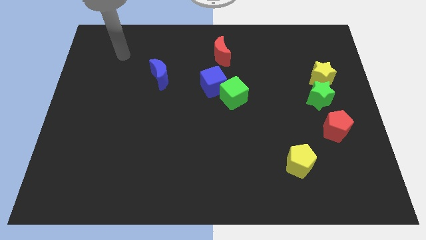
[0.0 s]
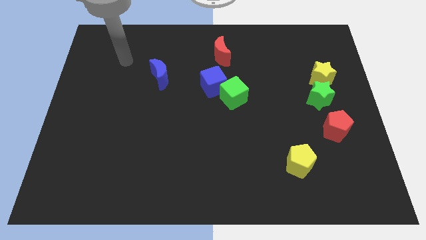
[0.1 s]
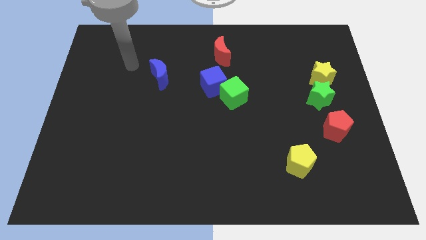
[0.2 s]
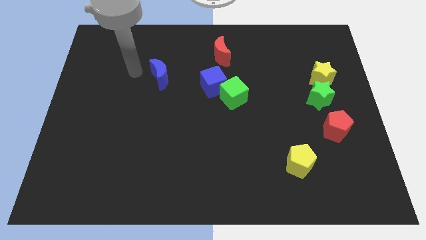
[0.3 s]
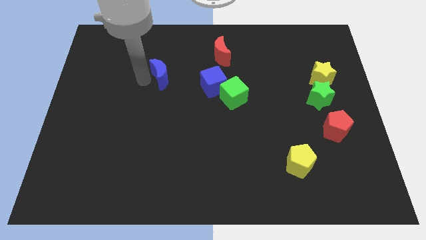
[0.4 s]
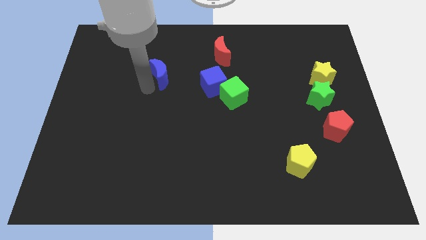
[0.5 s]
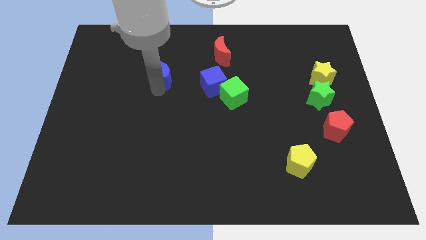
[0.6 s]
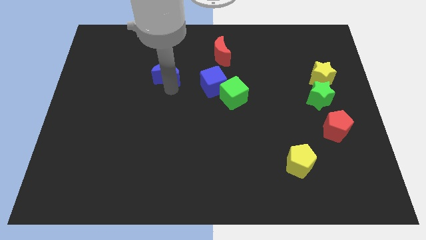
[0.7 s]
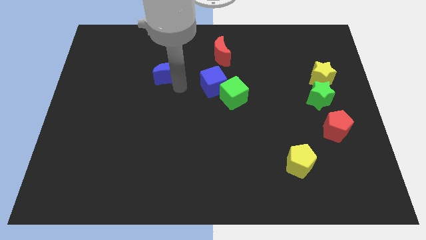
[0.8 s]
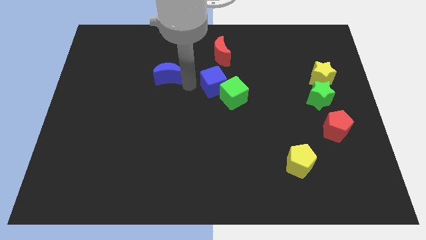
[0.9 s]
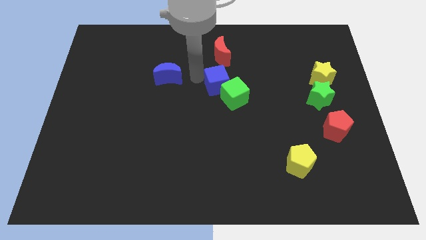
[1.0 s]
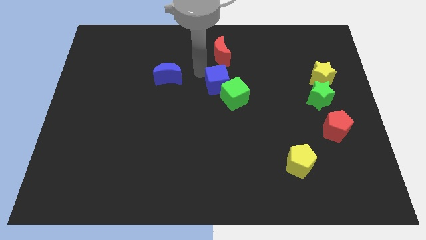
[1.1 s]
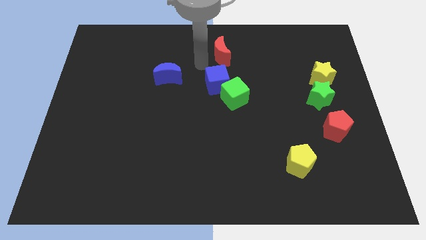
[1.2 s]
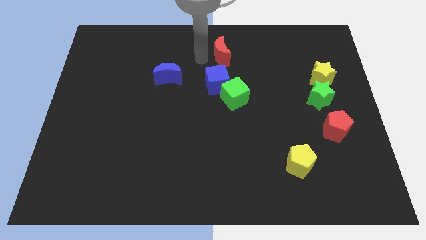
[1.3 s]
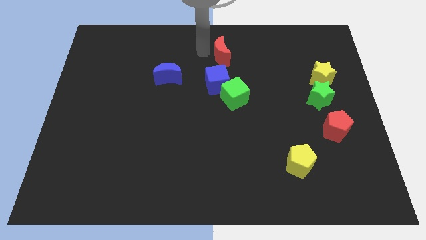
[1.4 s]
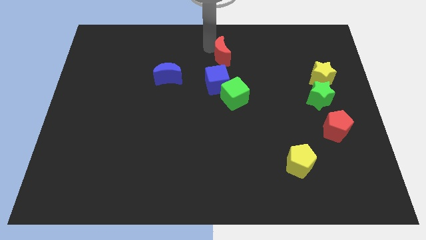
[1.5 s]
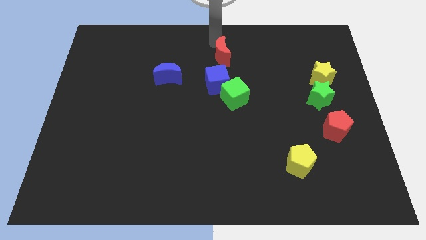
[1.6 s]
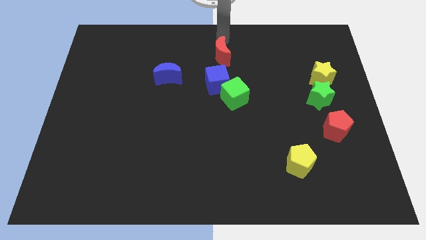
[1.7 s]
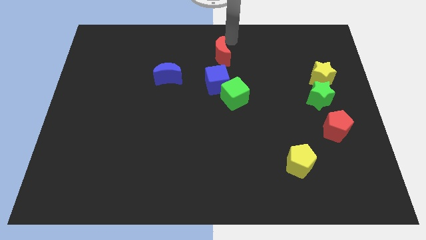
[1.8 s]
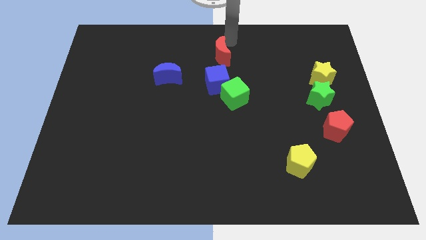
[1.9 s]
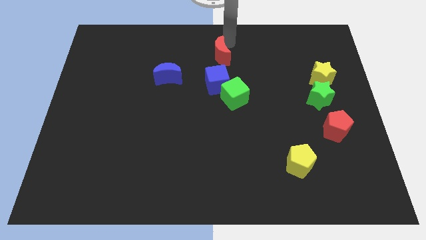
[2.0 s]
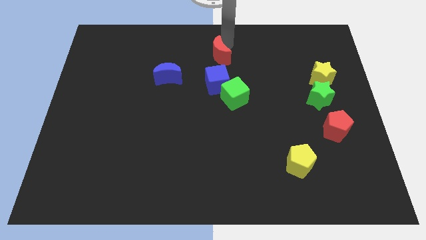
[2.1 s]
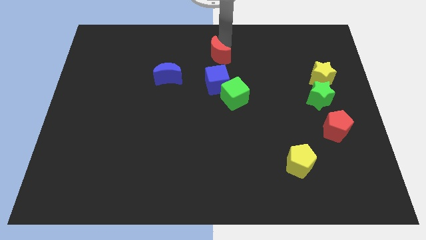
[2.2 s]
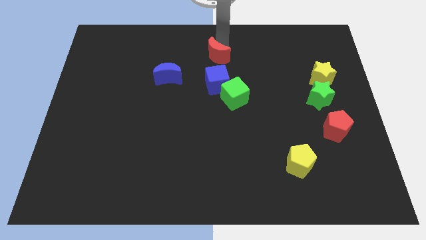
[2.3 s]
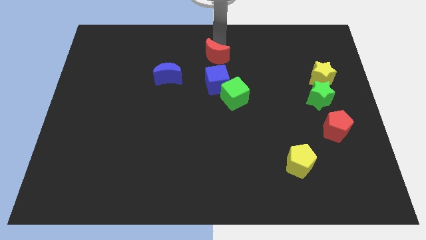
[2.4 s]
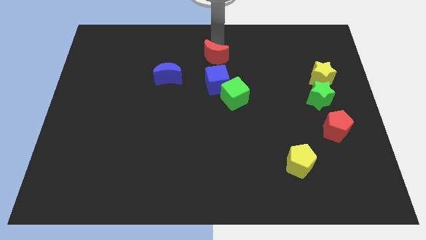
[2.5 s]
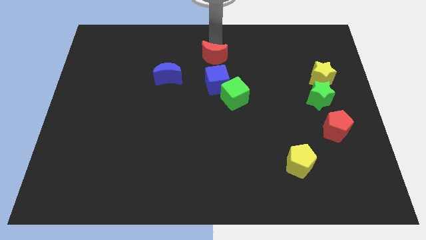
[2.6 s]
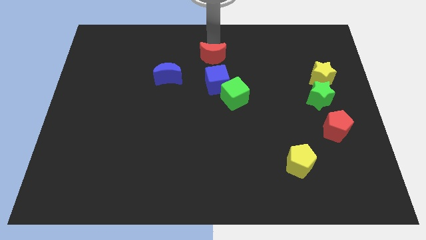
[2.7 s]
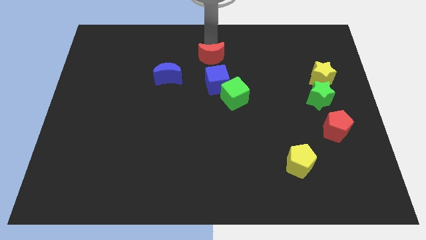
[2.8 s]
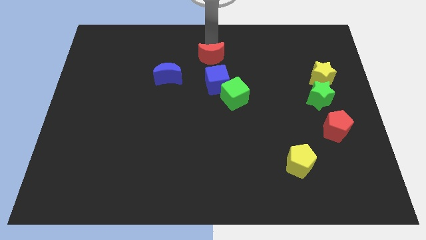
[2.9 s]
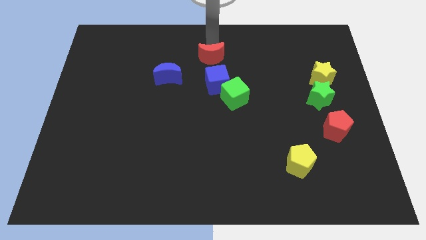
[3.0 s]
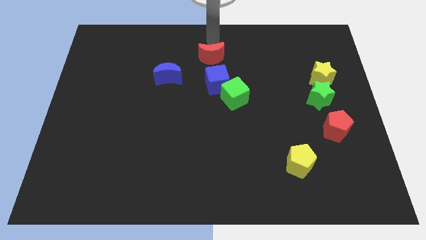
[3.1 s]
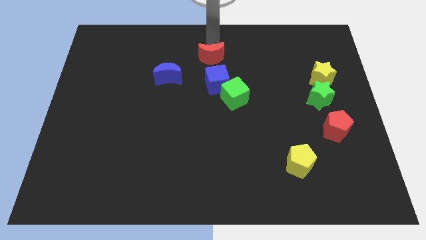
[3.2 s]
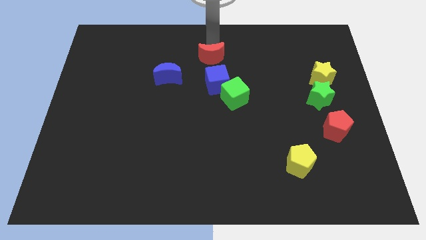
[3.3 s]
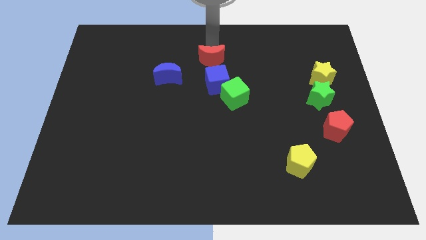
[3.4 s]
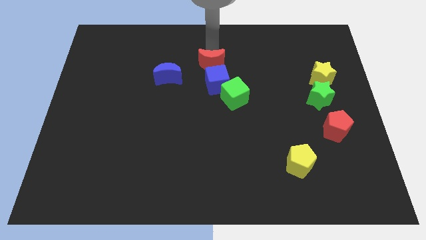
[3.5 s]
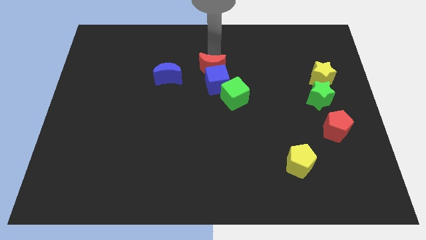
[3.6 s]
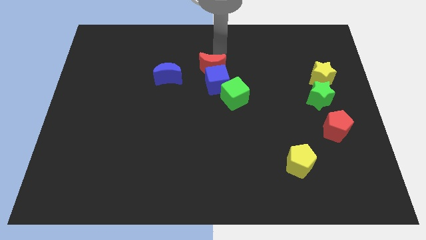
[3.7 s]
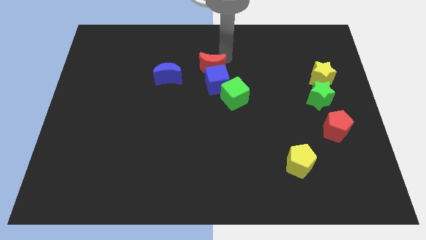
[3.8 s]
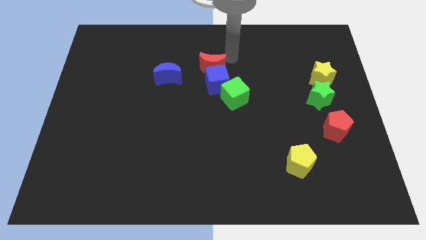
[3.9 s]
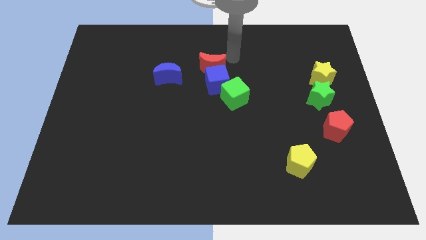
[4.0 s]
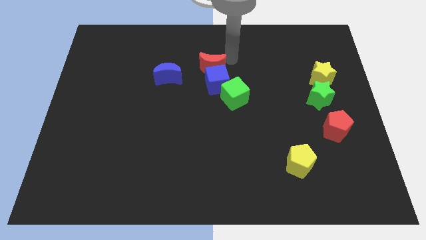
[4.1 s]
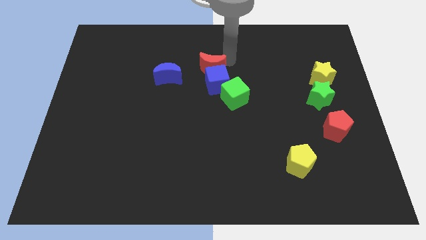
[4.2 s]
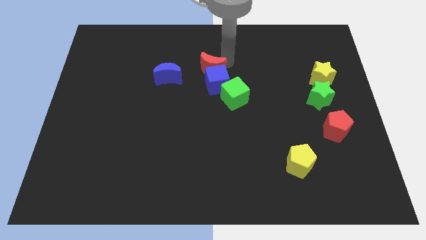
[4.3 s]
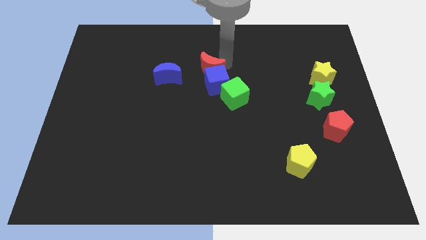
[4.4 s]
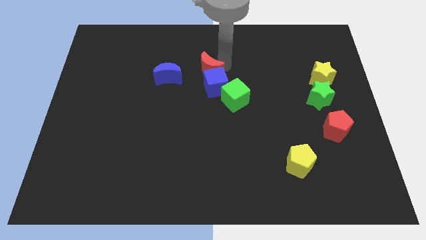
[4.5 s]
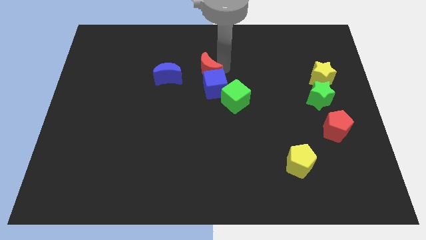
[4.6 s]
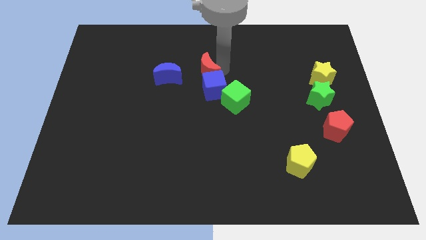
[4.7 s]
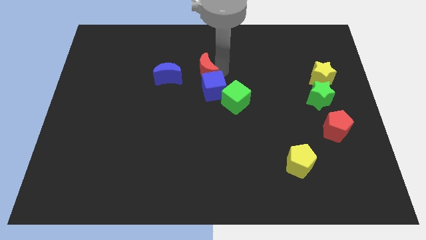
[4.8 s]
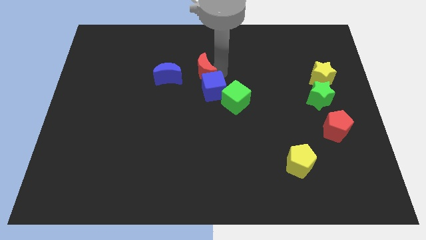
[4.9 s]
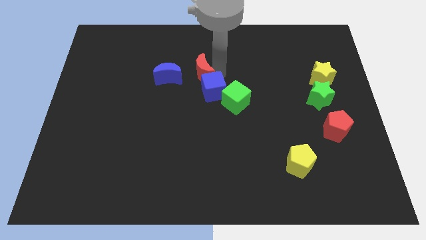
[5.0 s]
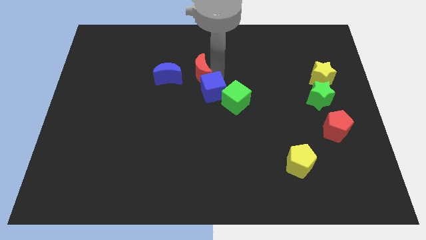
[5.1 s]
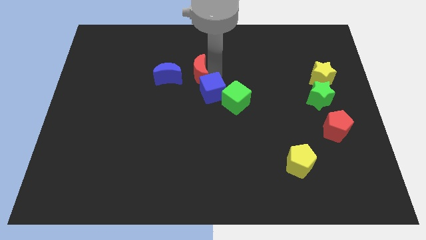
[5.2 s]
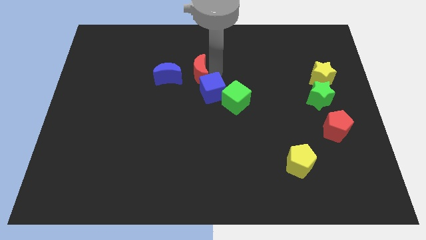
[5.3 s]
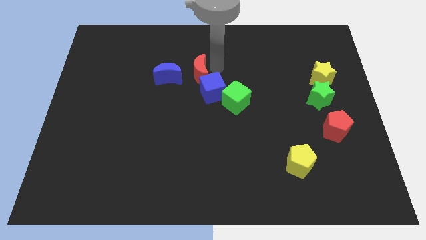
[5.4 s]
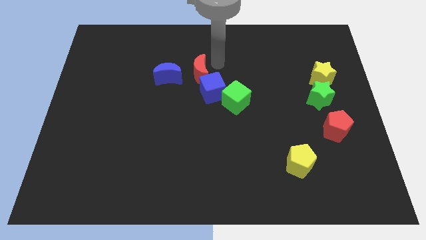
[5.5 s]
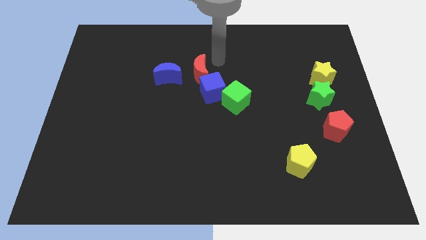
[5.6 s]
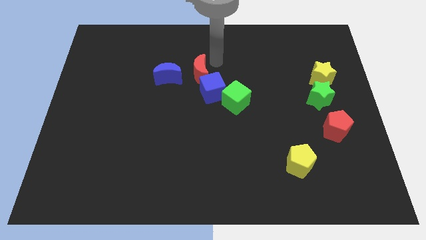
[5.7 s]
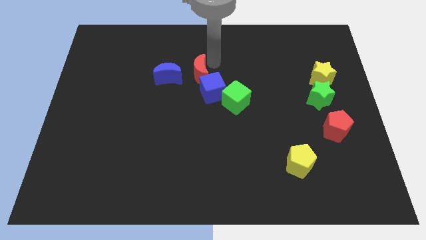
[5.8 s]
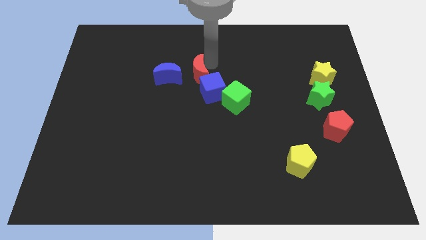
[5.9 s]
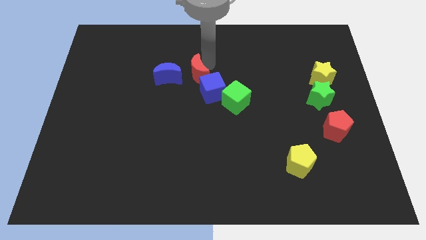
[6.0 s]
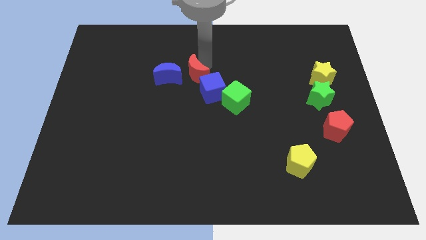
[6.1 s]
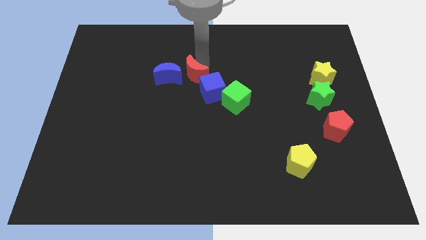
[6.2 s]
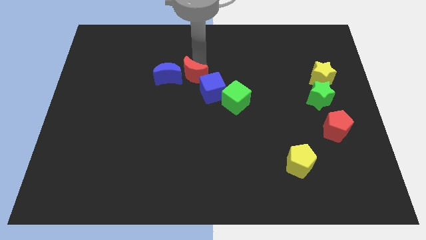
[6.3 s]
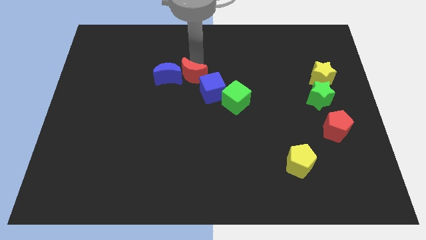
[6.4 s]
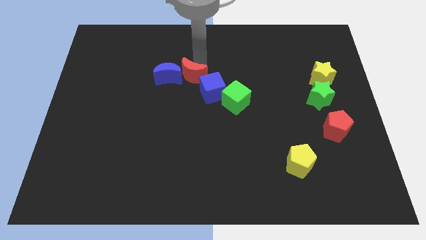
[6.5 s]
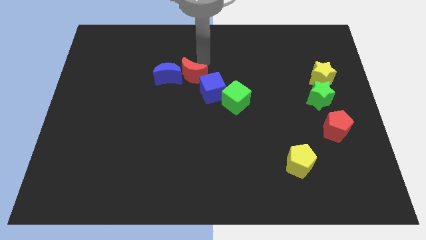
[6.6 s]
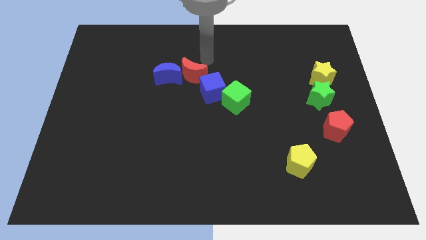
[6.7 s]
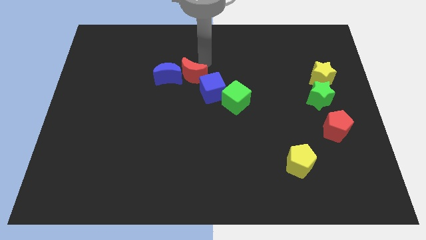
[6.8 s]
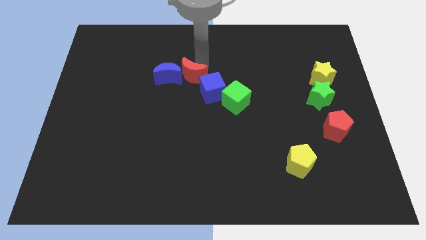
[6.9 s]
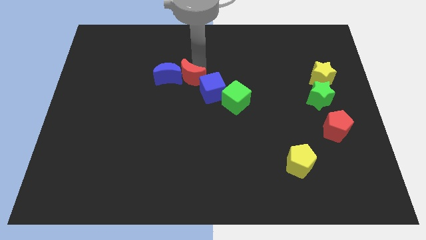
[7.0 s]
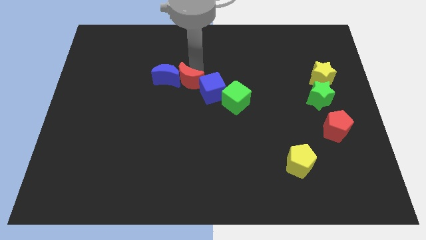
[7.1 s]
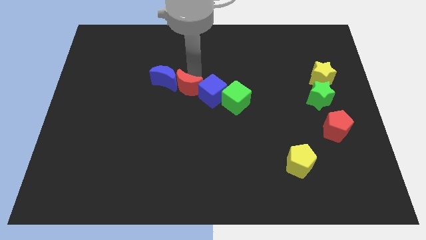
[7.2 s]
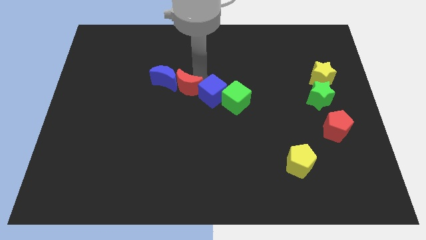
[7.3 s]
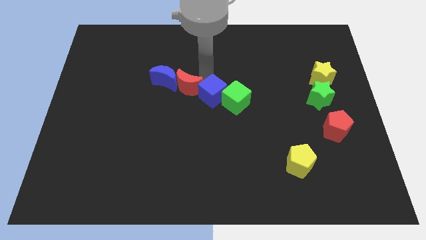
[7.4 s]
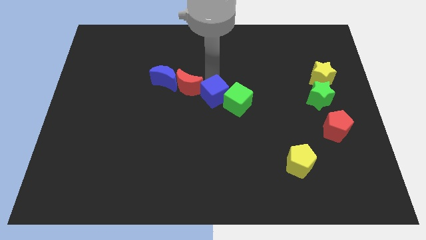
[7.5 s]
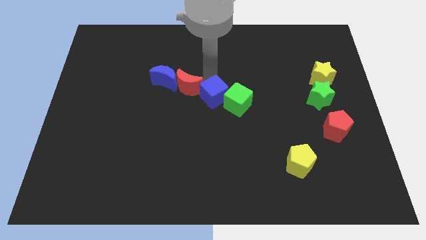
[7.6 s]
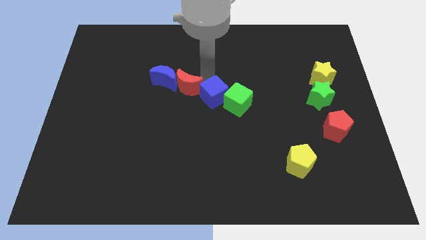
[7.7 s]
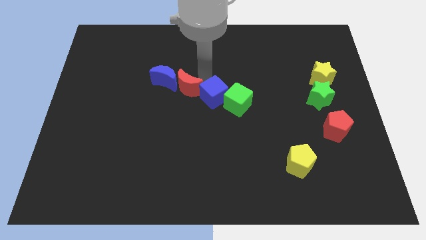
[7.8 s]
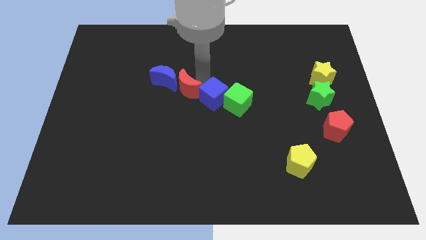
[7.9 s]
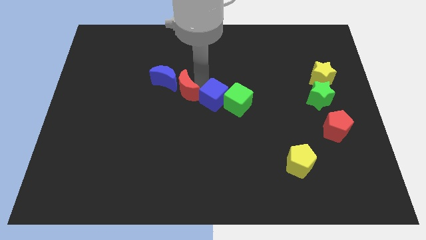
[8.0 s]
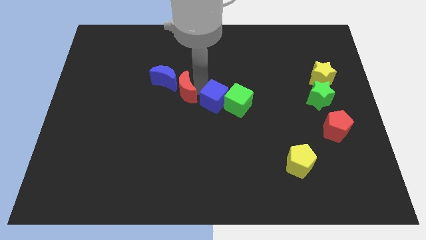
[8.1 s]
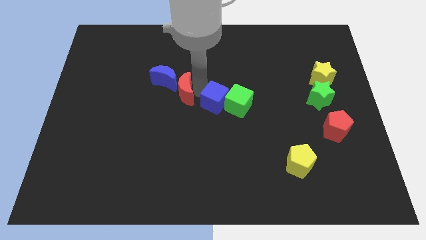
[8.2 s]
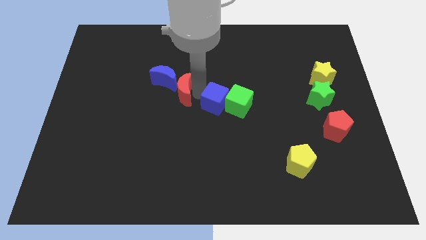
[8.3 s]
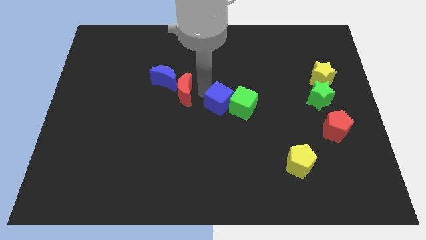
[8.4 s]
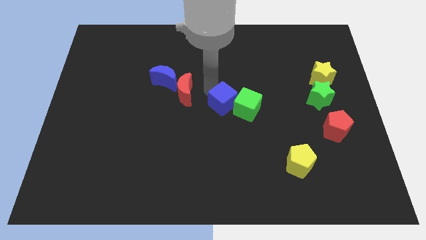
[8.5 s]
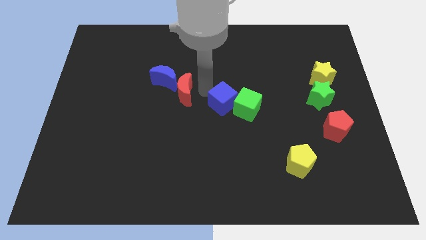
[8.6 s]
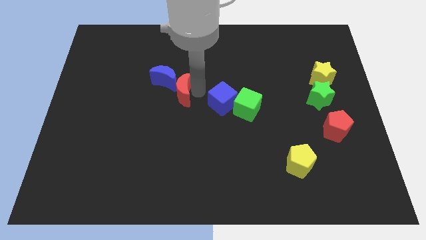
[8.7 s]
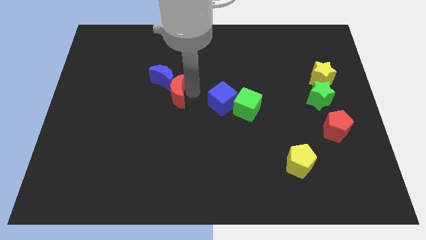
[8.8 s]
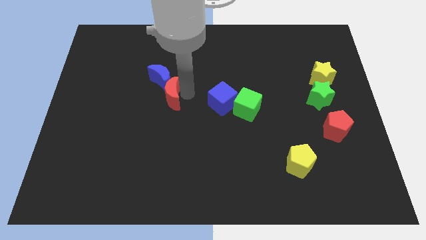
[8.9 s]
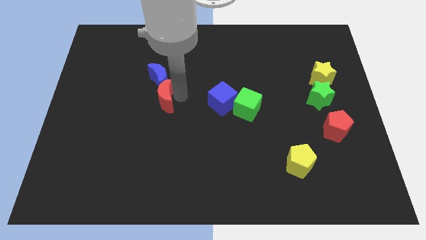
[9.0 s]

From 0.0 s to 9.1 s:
push the red moon diagonally down and to the left
